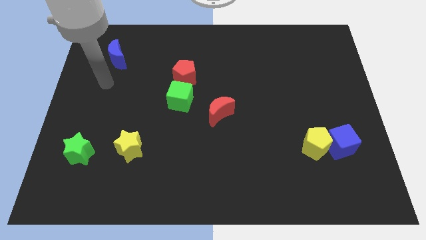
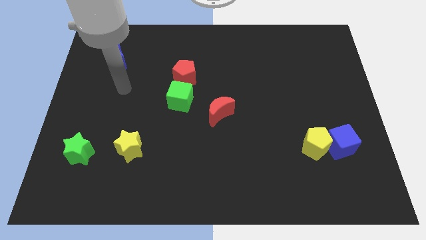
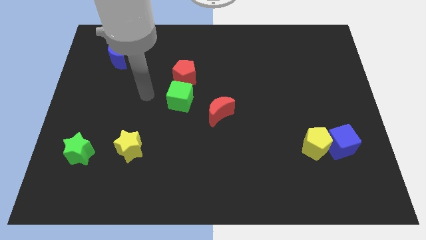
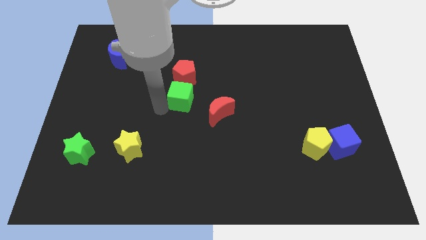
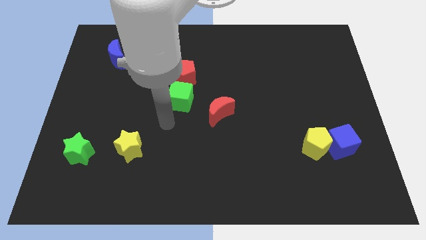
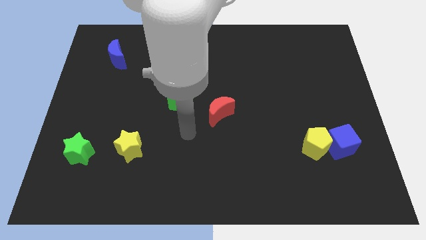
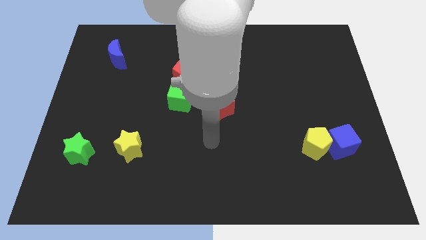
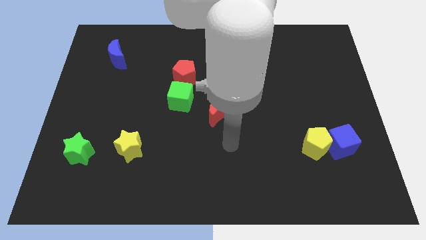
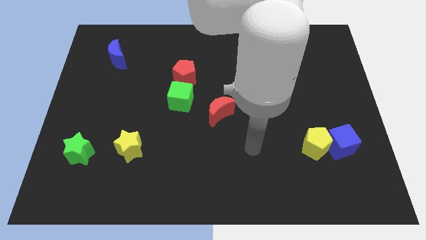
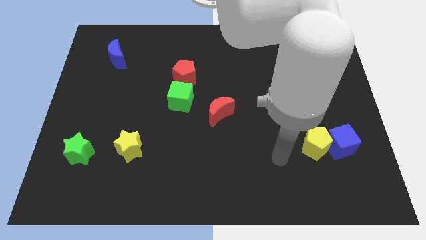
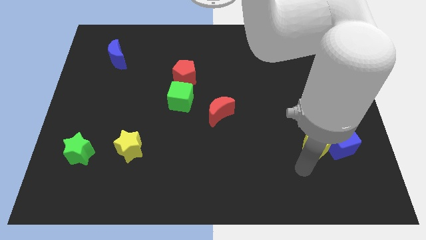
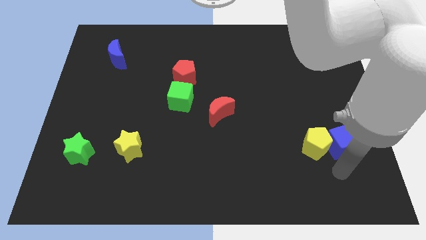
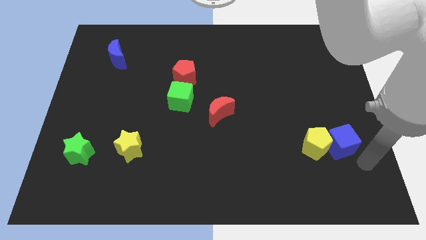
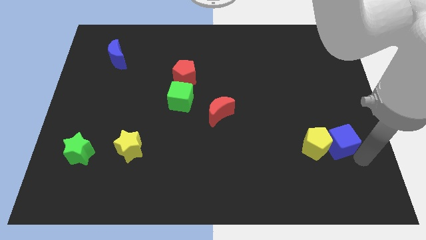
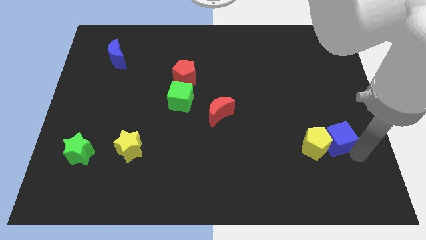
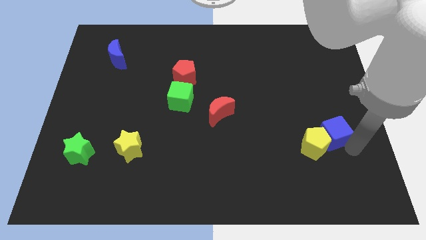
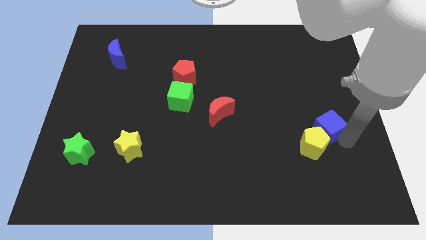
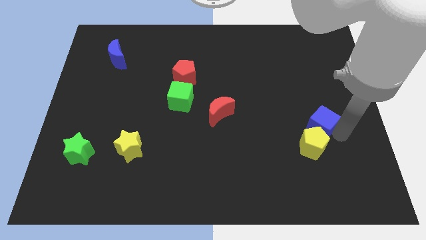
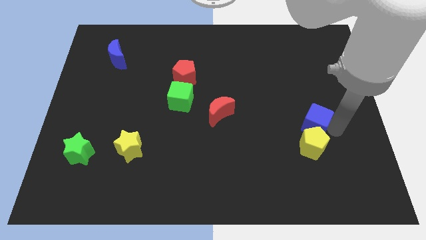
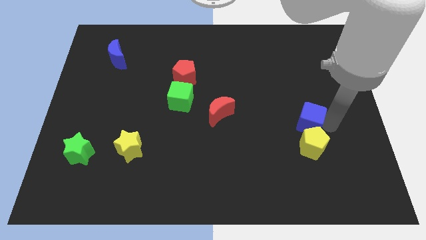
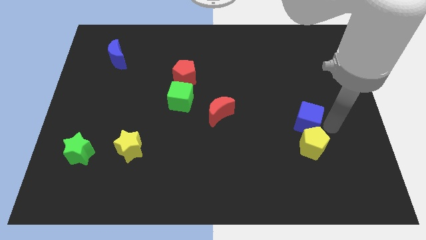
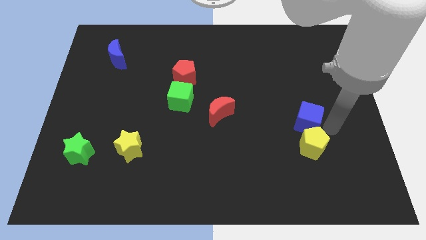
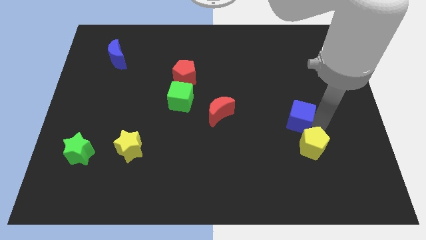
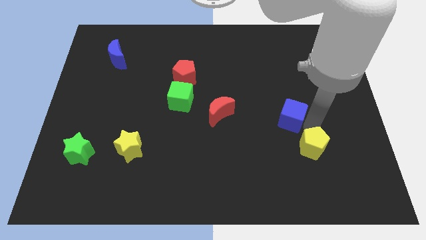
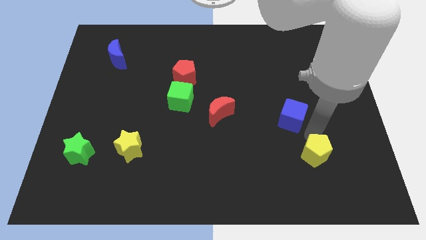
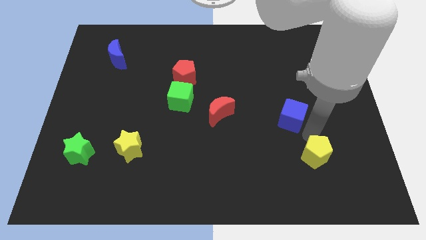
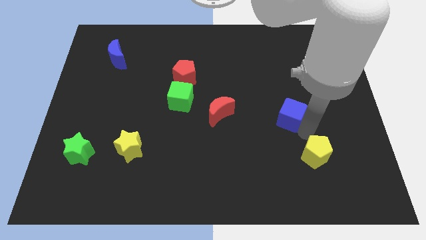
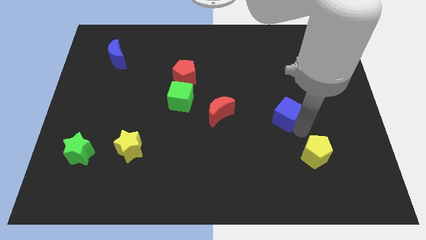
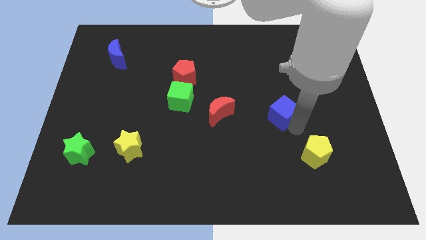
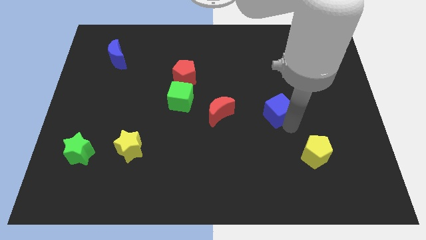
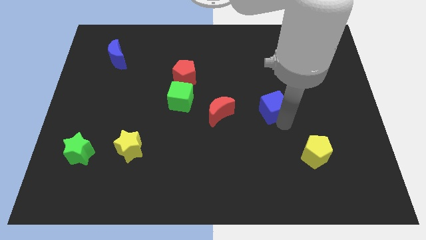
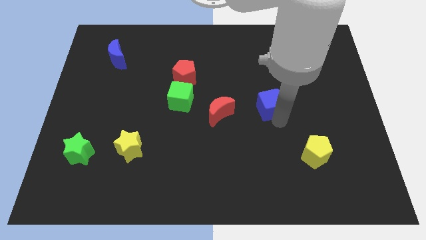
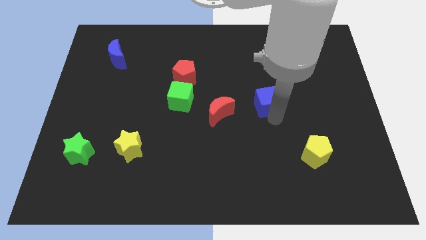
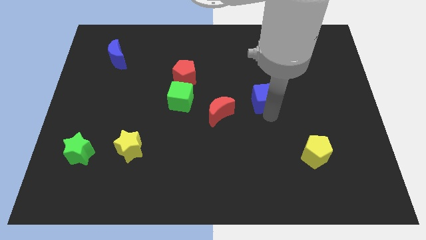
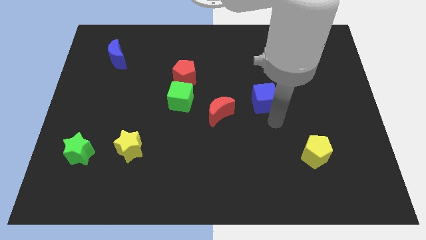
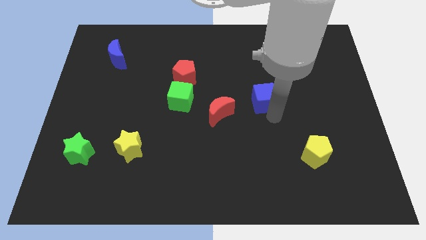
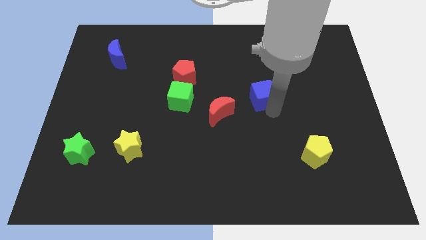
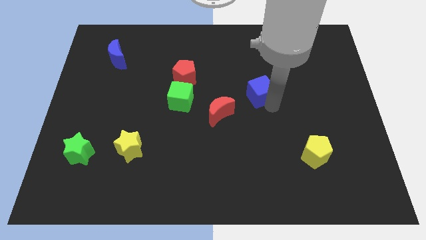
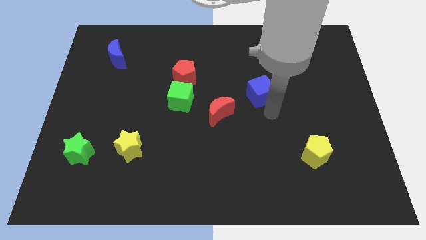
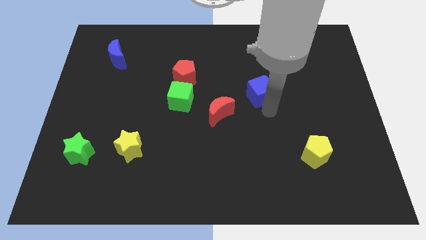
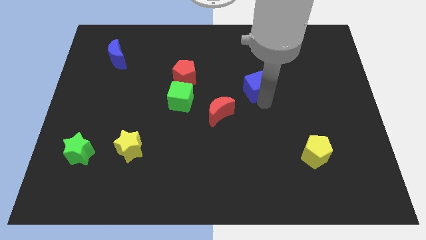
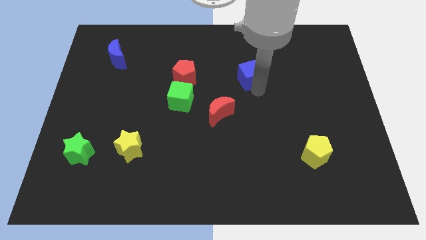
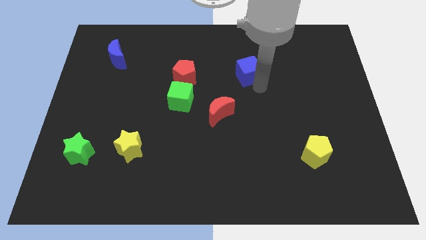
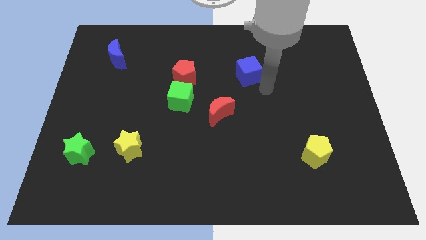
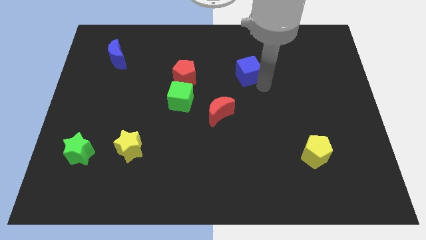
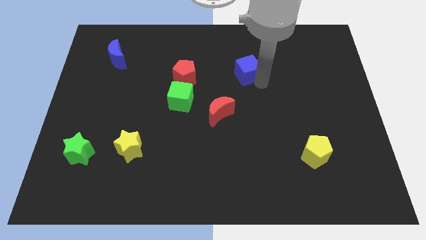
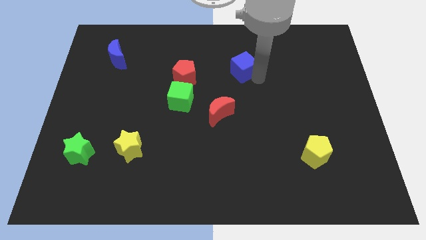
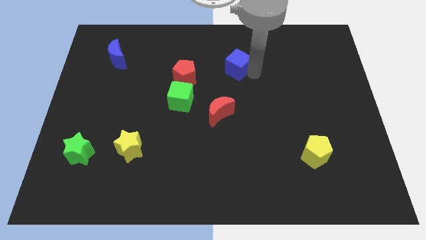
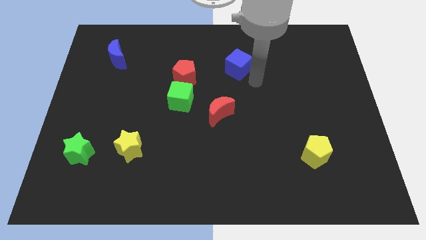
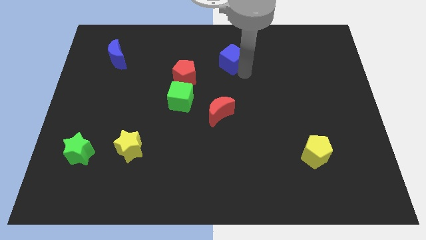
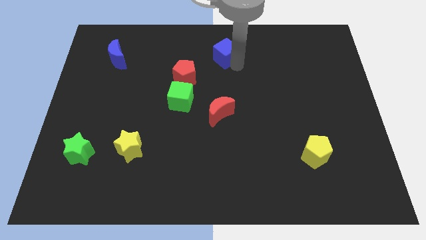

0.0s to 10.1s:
move the blue cube to the towards your base
